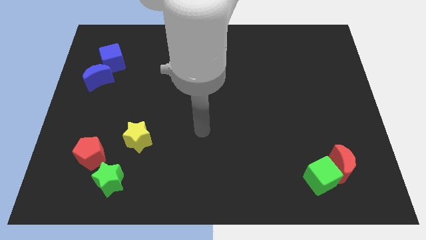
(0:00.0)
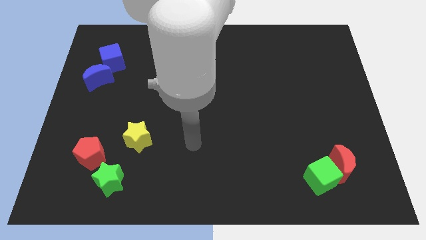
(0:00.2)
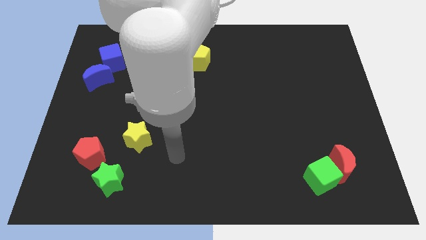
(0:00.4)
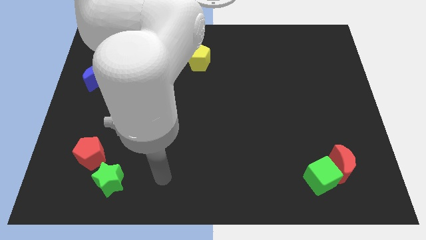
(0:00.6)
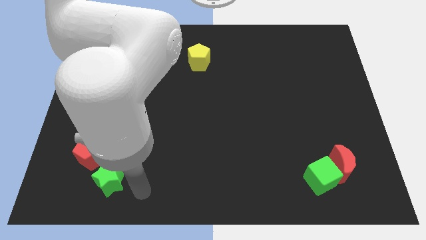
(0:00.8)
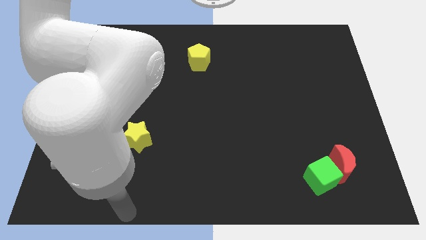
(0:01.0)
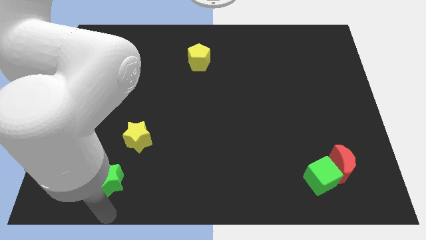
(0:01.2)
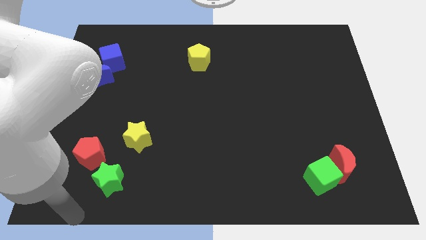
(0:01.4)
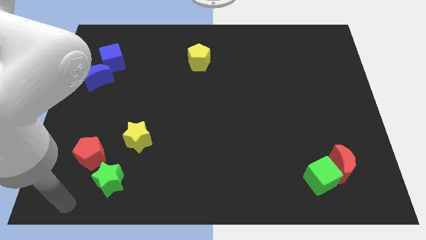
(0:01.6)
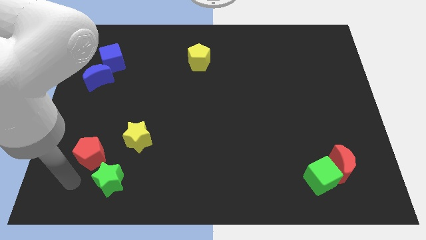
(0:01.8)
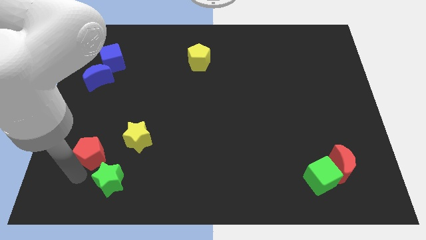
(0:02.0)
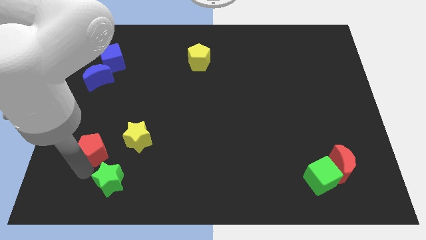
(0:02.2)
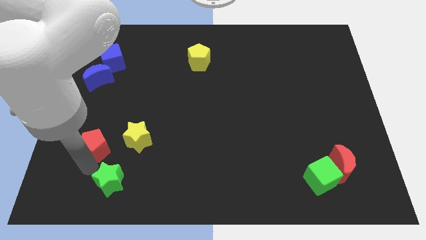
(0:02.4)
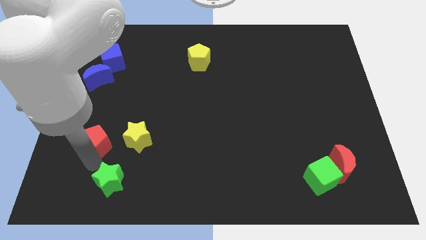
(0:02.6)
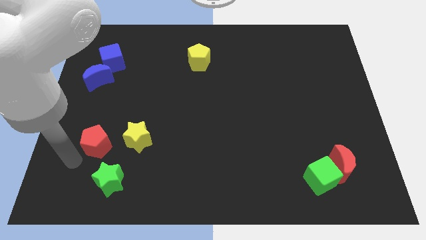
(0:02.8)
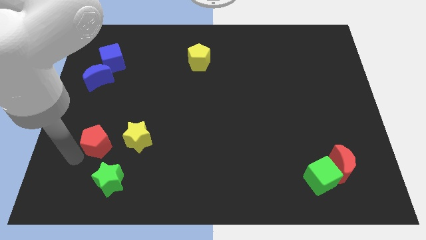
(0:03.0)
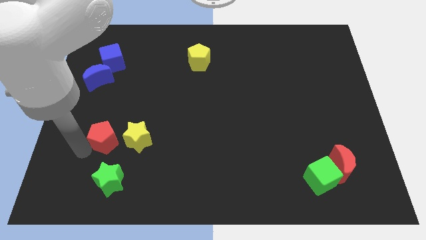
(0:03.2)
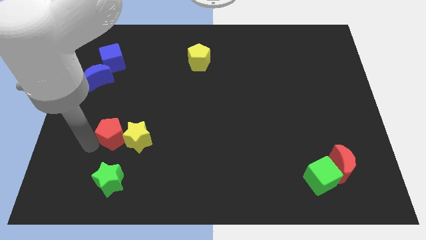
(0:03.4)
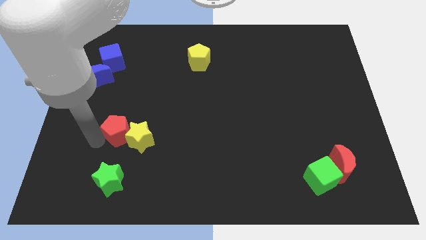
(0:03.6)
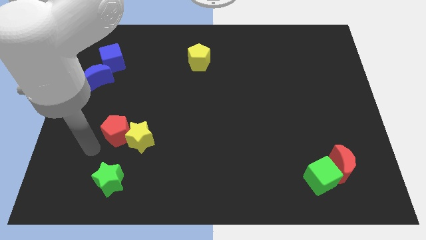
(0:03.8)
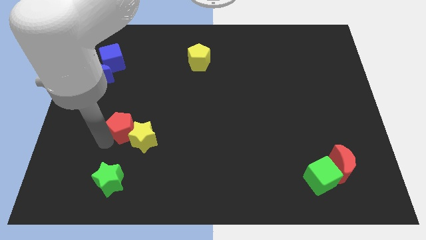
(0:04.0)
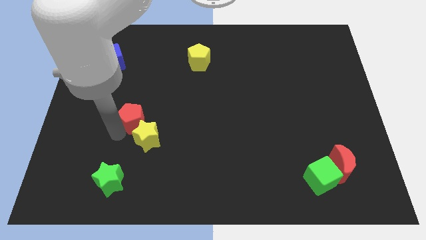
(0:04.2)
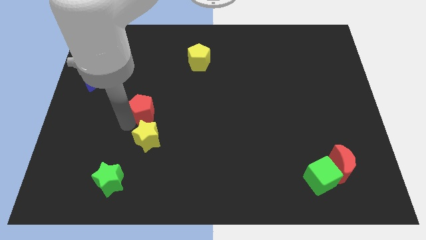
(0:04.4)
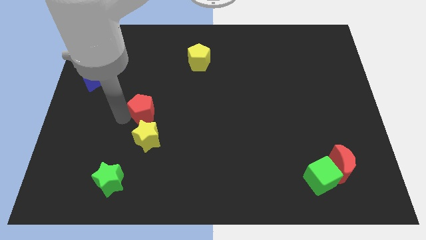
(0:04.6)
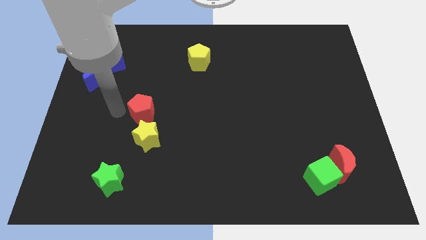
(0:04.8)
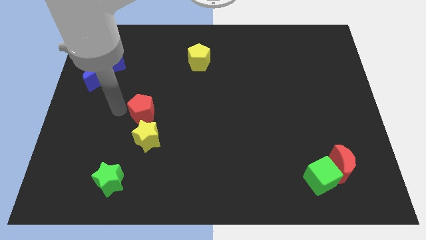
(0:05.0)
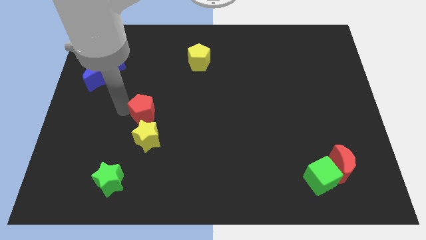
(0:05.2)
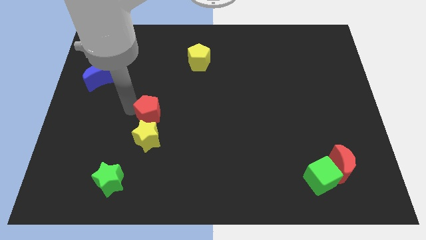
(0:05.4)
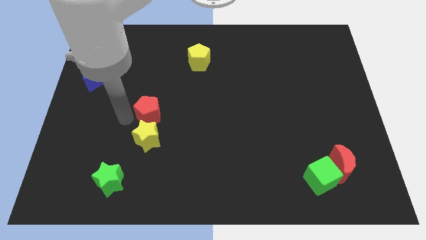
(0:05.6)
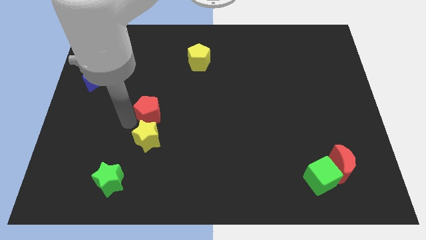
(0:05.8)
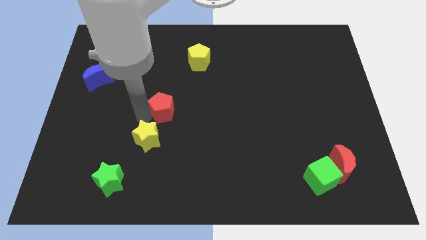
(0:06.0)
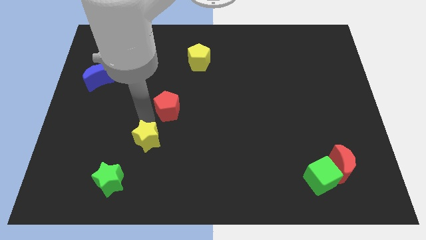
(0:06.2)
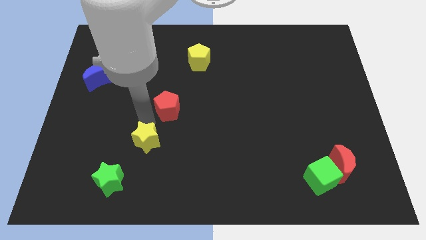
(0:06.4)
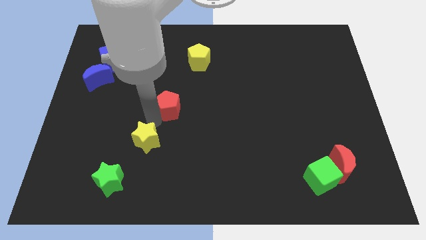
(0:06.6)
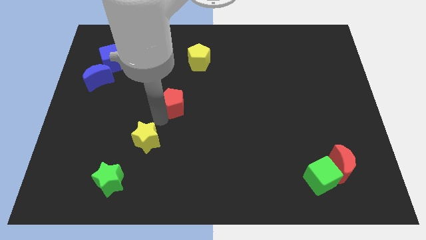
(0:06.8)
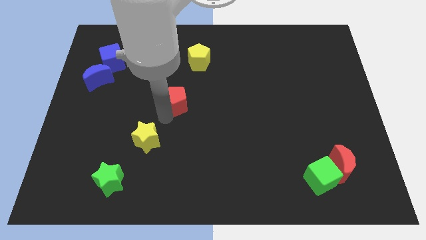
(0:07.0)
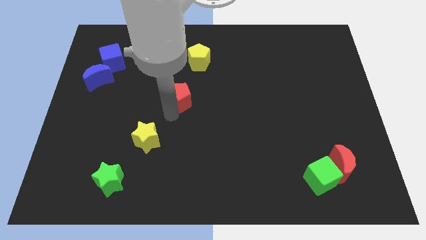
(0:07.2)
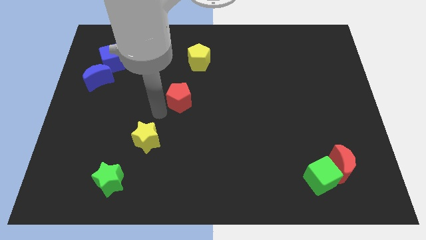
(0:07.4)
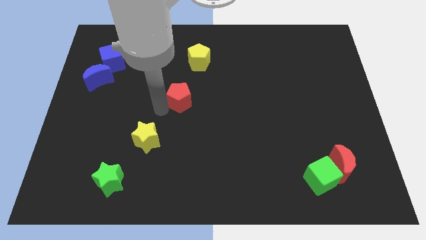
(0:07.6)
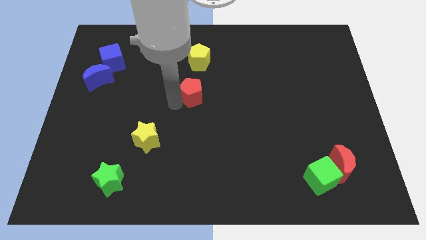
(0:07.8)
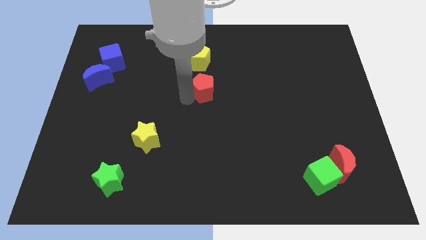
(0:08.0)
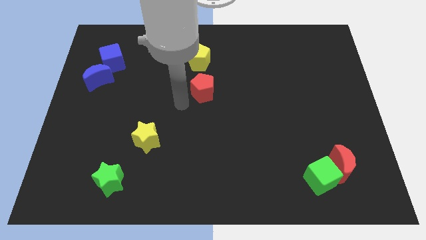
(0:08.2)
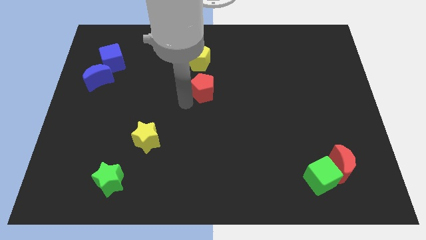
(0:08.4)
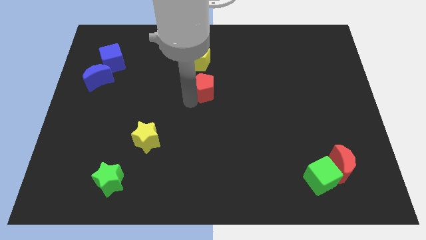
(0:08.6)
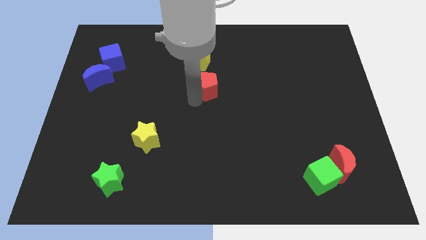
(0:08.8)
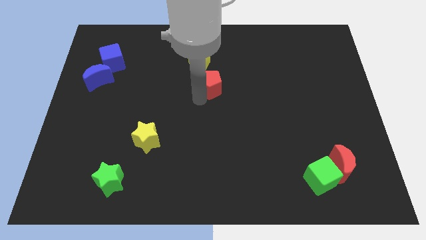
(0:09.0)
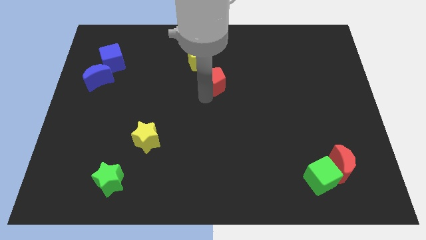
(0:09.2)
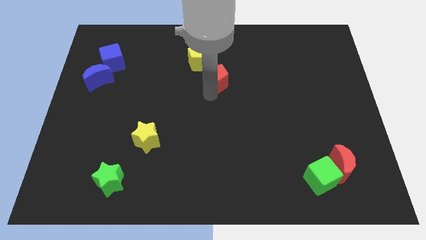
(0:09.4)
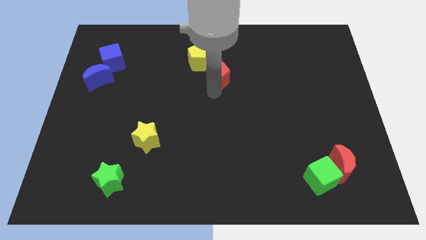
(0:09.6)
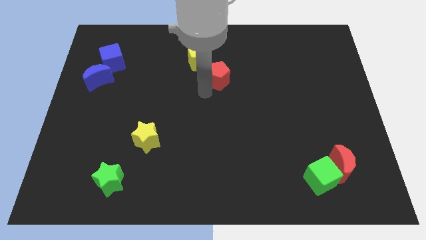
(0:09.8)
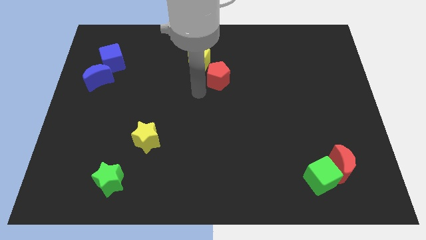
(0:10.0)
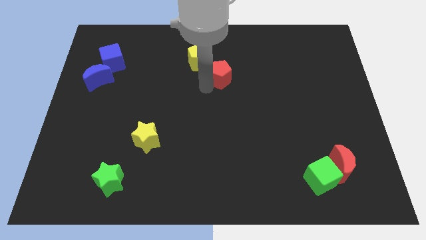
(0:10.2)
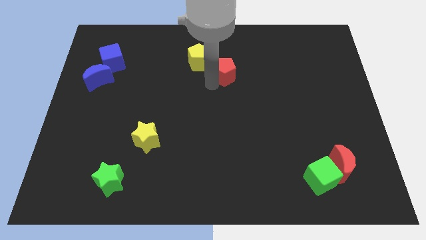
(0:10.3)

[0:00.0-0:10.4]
move the red pentagon just right of the yellow pentagon

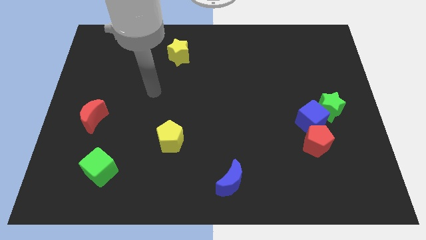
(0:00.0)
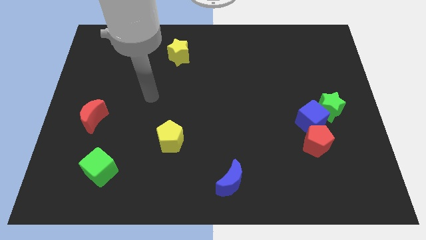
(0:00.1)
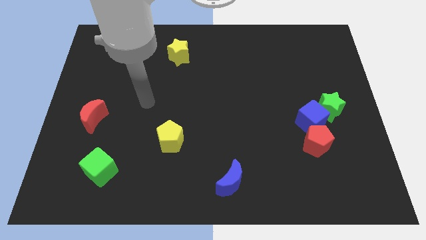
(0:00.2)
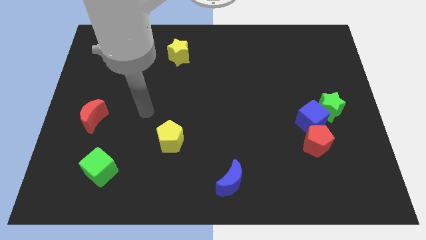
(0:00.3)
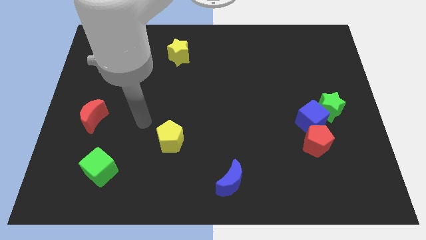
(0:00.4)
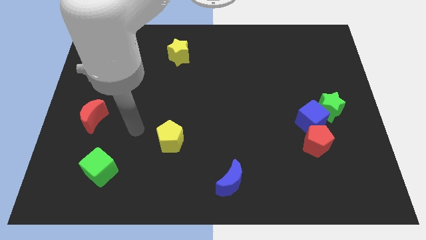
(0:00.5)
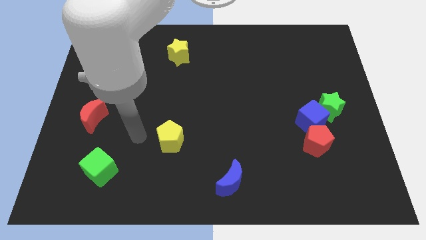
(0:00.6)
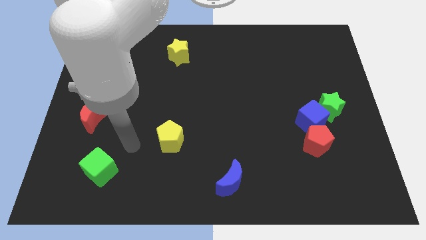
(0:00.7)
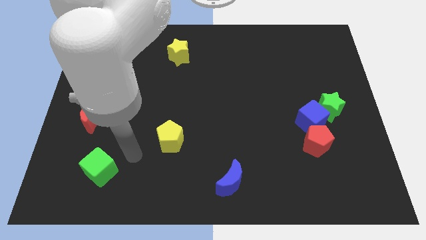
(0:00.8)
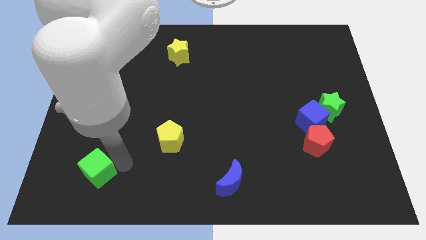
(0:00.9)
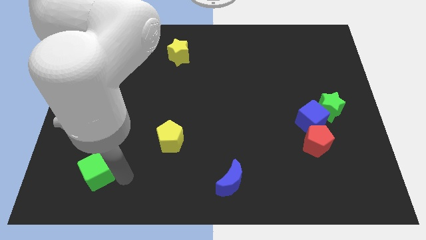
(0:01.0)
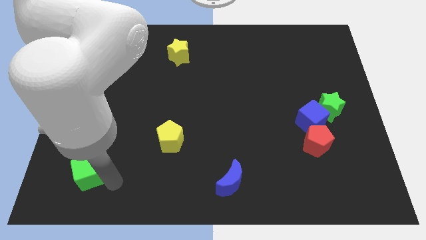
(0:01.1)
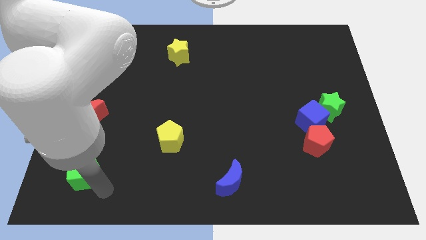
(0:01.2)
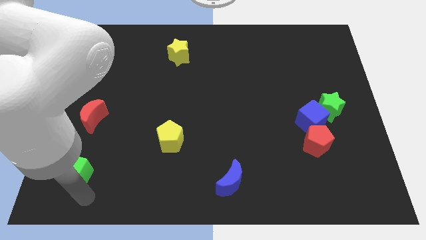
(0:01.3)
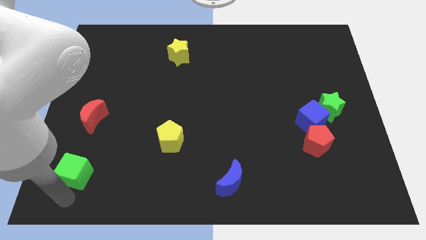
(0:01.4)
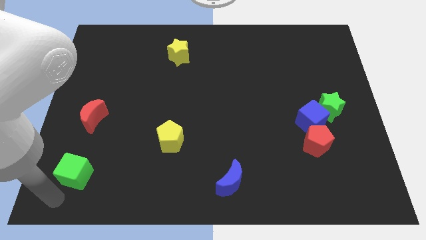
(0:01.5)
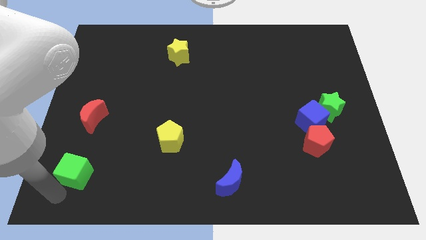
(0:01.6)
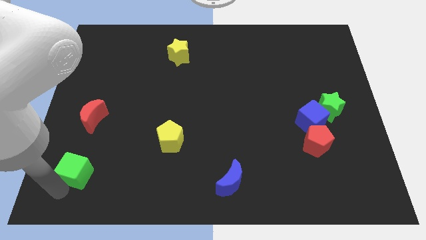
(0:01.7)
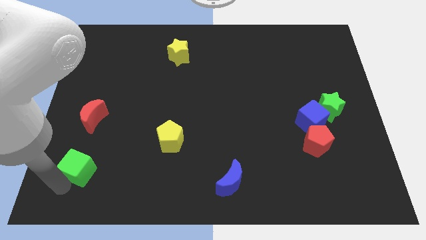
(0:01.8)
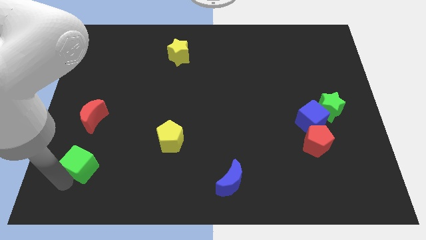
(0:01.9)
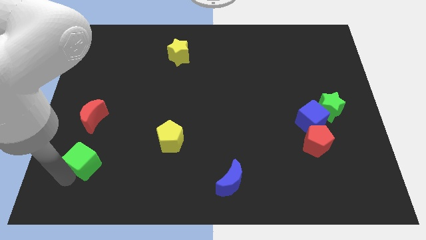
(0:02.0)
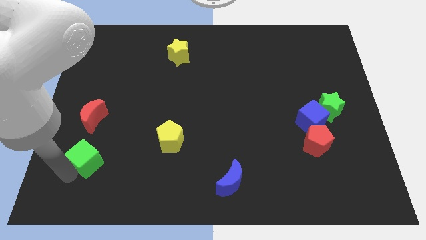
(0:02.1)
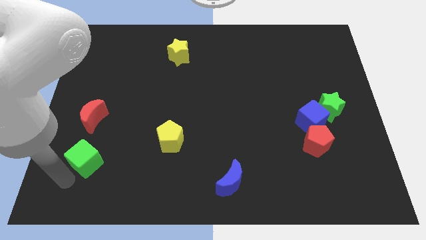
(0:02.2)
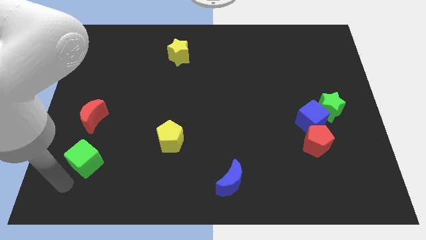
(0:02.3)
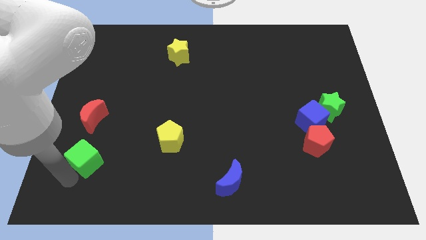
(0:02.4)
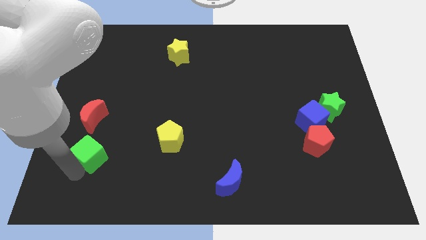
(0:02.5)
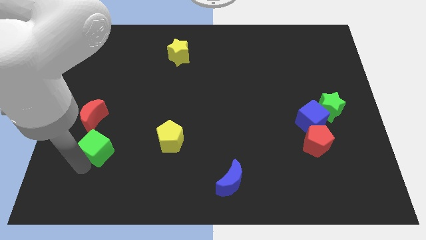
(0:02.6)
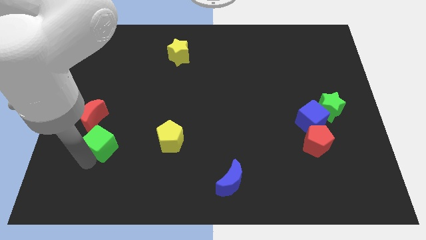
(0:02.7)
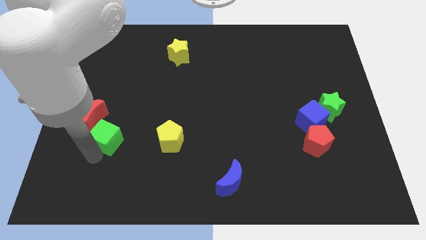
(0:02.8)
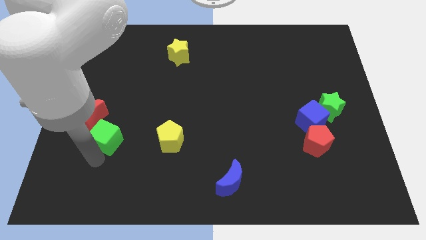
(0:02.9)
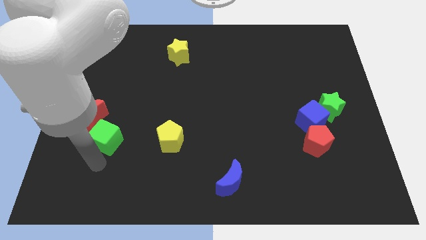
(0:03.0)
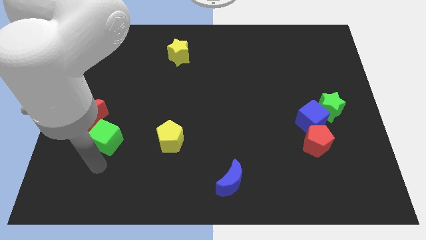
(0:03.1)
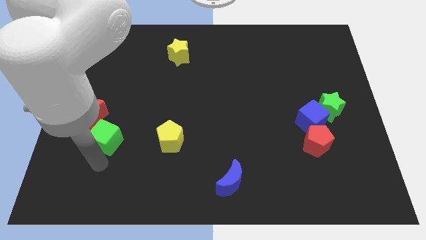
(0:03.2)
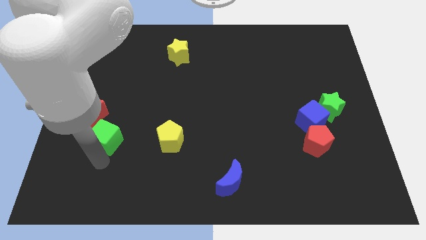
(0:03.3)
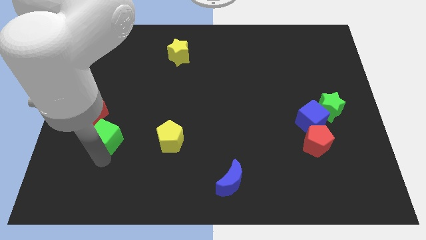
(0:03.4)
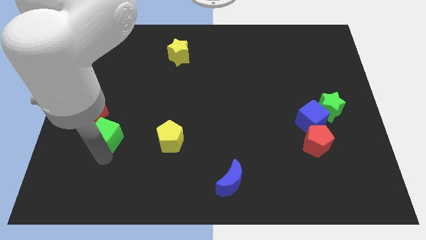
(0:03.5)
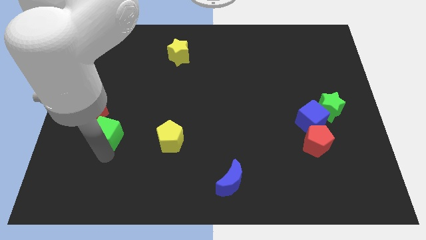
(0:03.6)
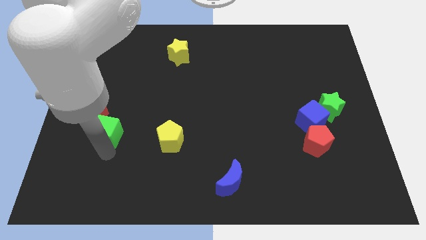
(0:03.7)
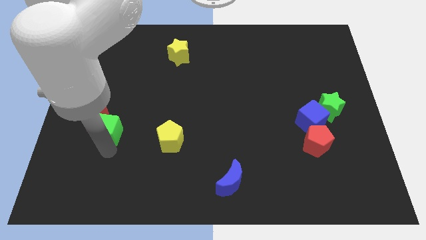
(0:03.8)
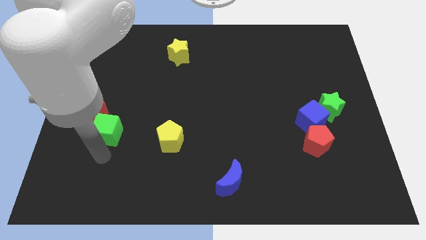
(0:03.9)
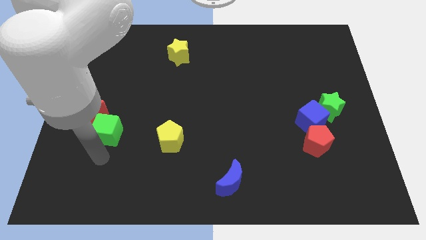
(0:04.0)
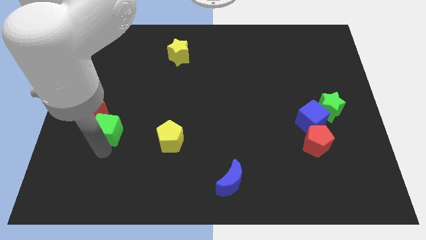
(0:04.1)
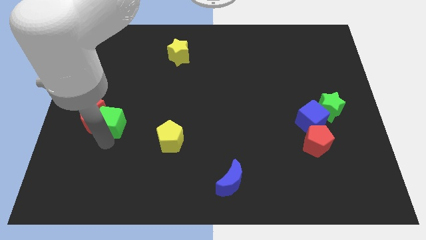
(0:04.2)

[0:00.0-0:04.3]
slide the green cube diagonally up and to the right of the red moon
